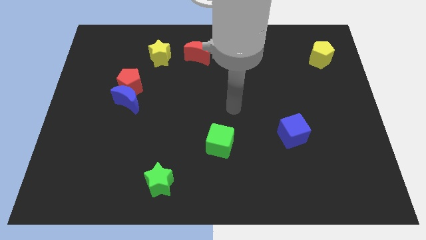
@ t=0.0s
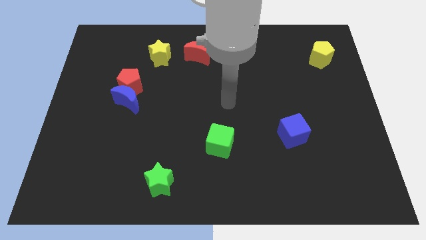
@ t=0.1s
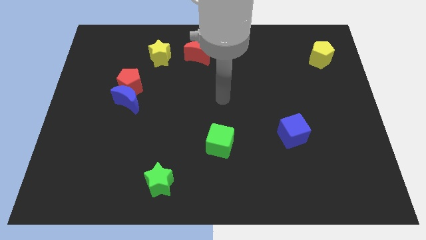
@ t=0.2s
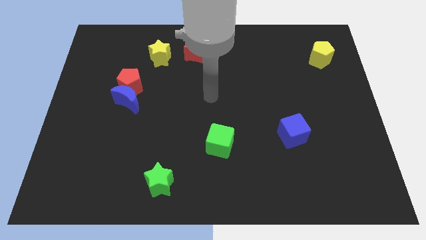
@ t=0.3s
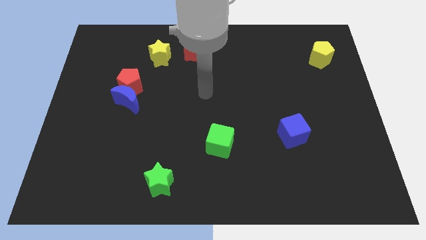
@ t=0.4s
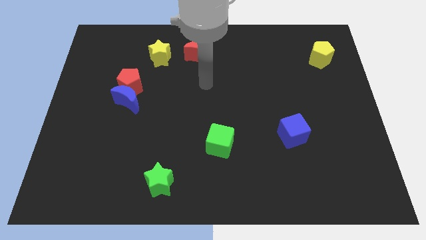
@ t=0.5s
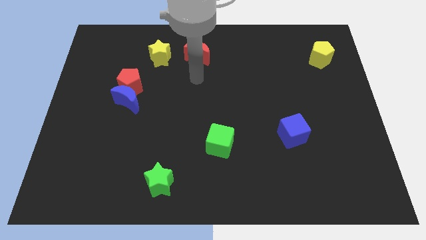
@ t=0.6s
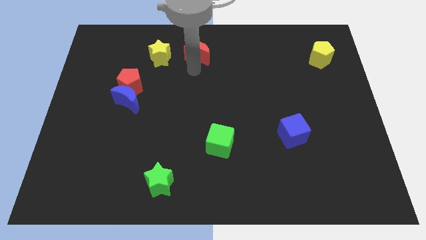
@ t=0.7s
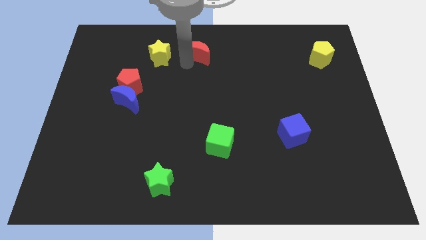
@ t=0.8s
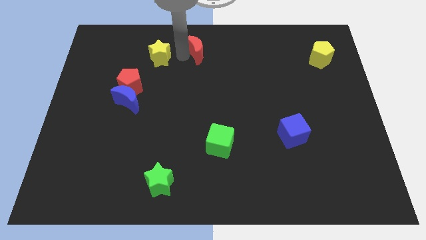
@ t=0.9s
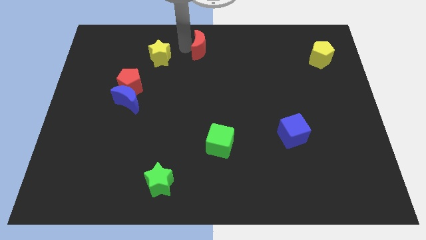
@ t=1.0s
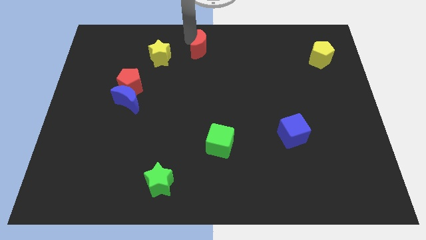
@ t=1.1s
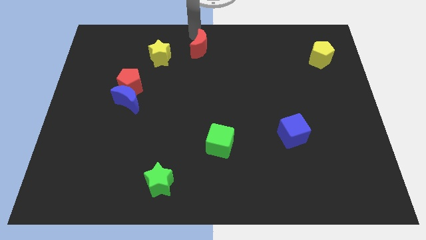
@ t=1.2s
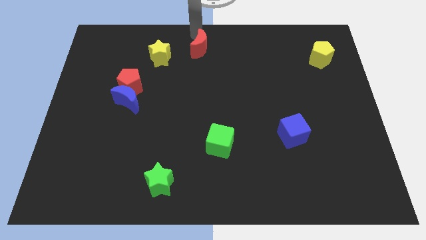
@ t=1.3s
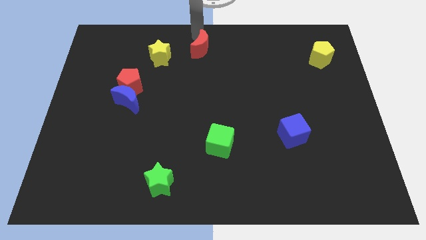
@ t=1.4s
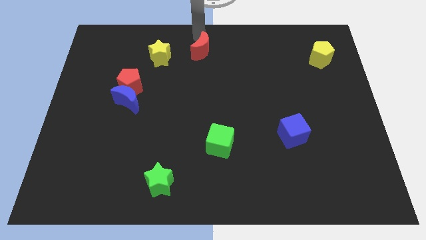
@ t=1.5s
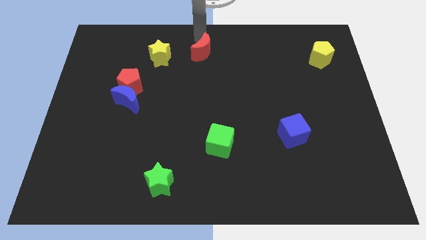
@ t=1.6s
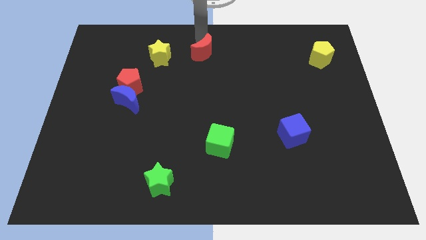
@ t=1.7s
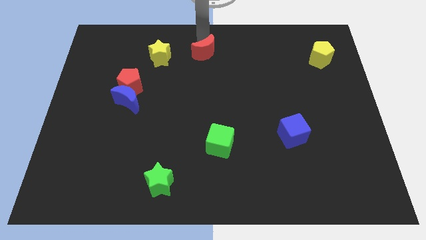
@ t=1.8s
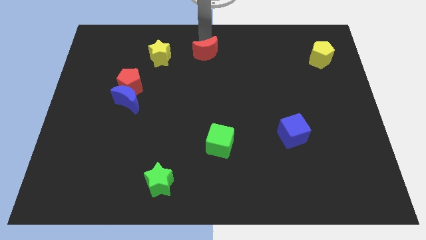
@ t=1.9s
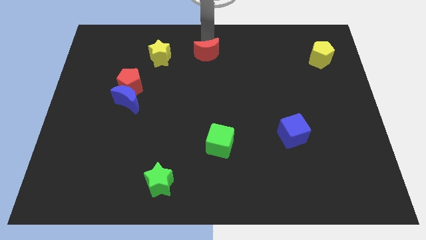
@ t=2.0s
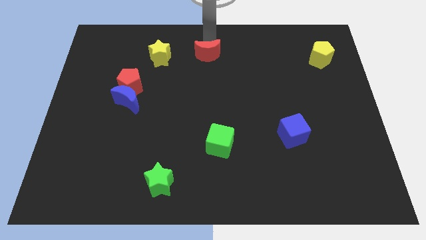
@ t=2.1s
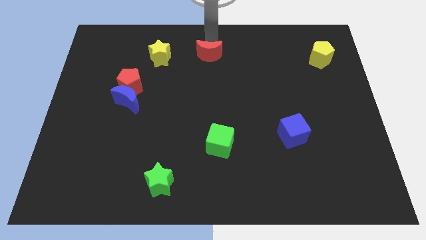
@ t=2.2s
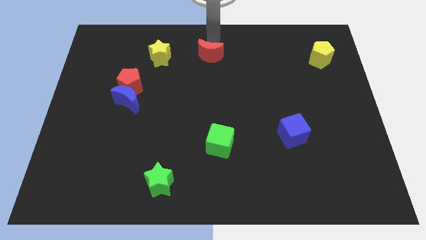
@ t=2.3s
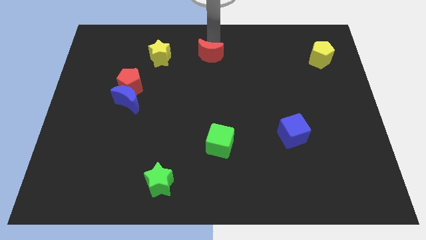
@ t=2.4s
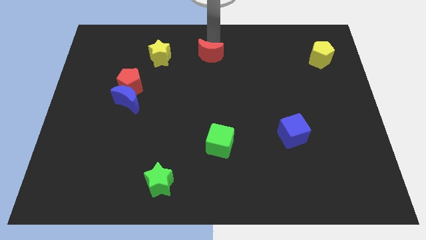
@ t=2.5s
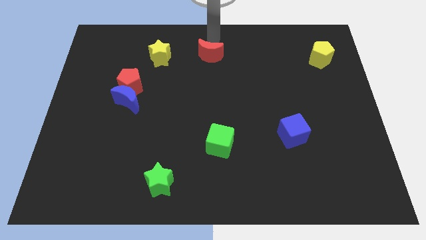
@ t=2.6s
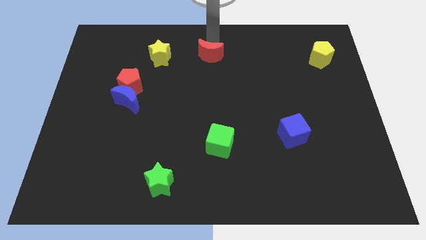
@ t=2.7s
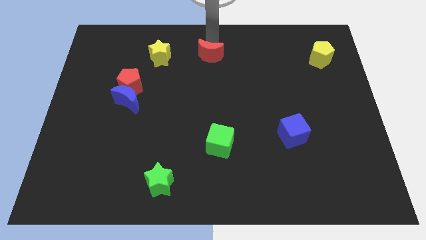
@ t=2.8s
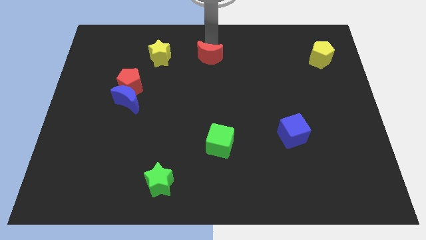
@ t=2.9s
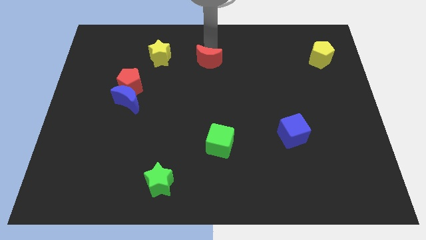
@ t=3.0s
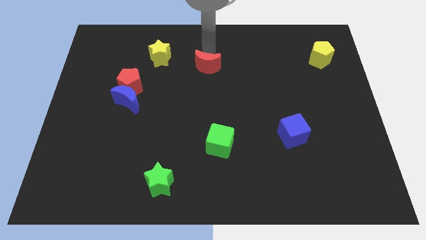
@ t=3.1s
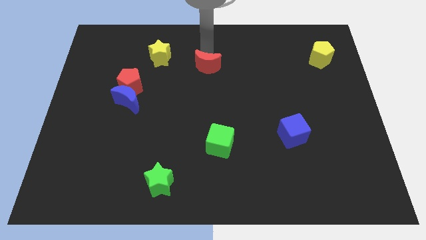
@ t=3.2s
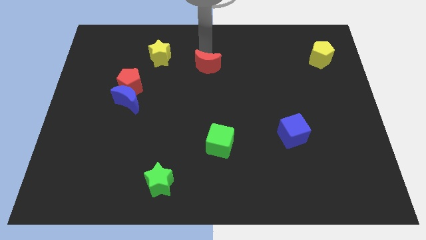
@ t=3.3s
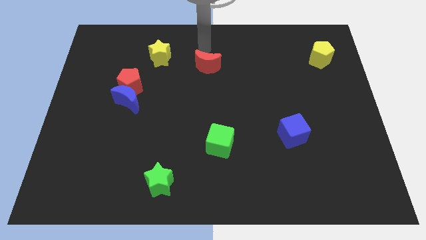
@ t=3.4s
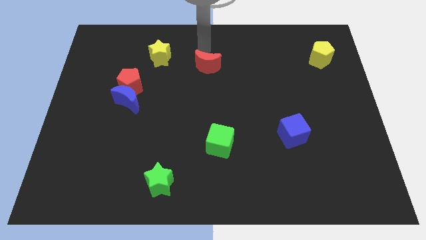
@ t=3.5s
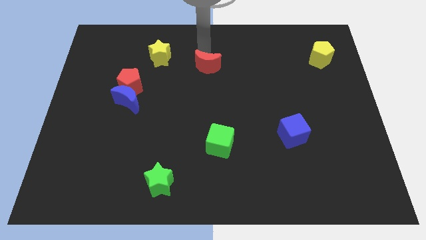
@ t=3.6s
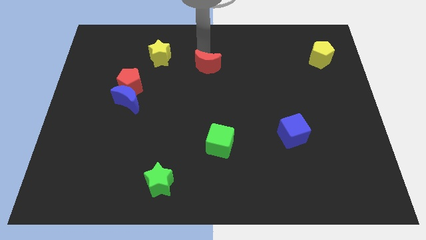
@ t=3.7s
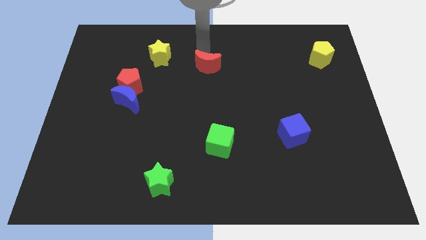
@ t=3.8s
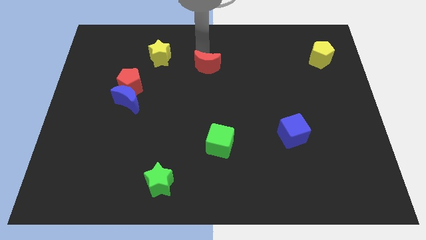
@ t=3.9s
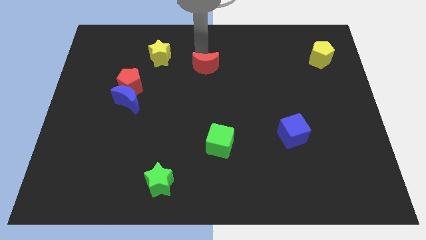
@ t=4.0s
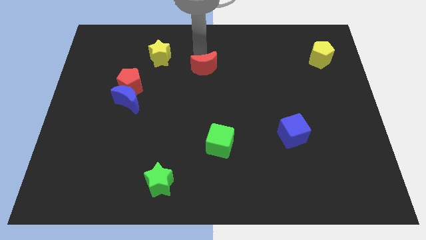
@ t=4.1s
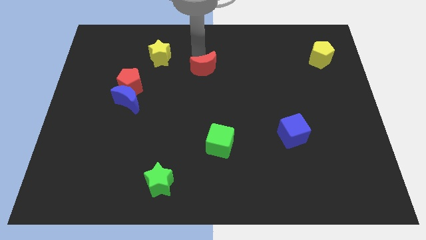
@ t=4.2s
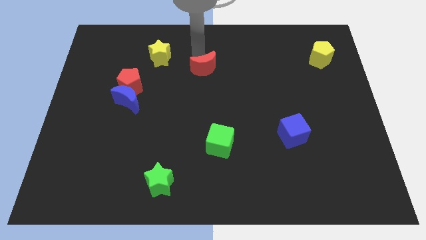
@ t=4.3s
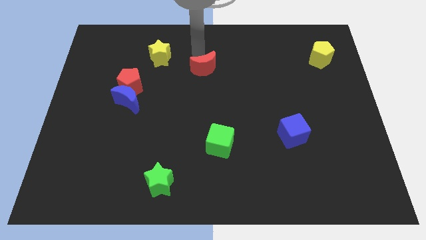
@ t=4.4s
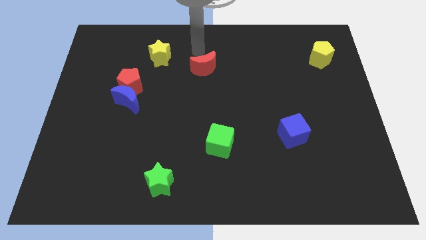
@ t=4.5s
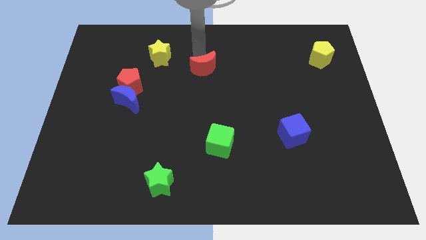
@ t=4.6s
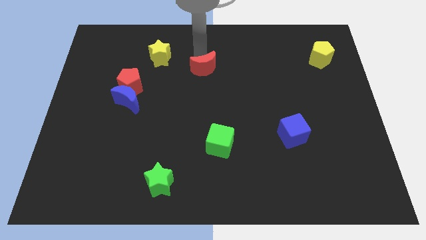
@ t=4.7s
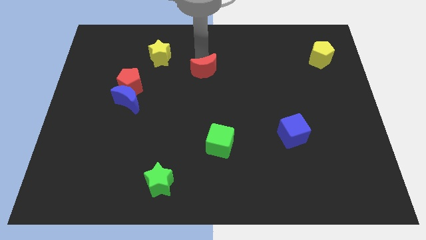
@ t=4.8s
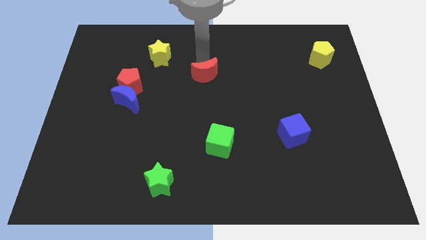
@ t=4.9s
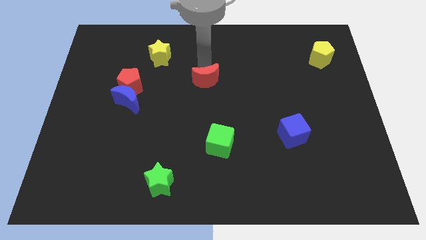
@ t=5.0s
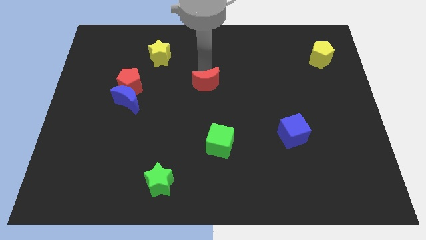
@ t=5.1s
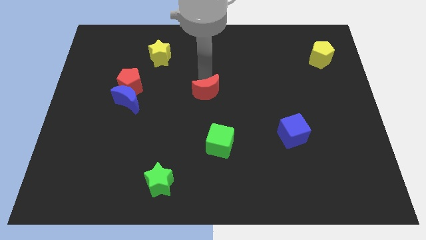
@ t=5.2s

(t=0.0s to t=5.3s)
put the red moon to the top side of the green cube

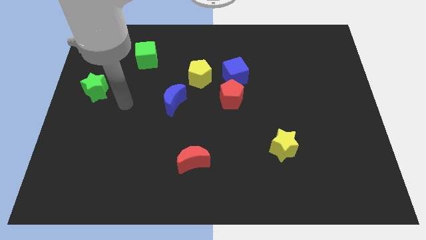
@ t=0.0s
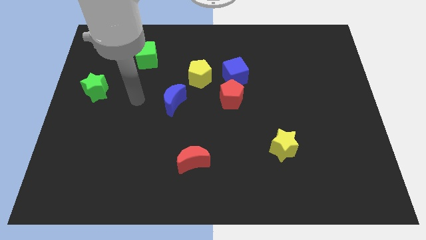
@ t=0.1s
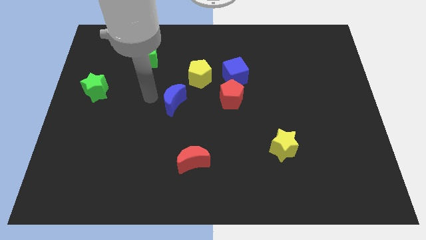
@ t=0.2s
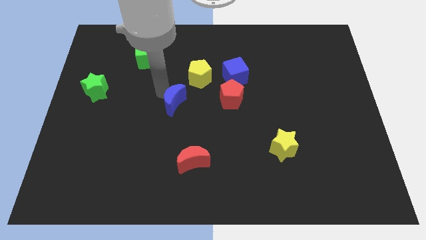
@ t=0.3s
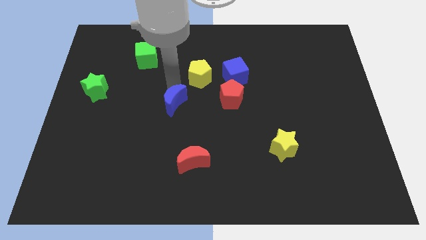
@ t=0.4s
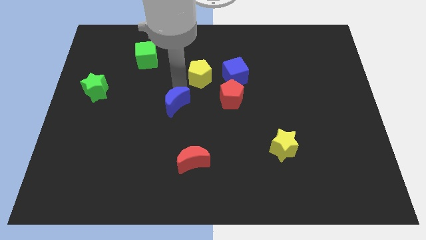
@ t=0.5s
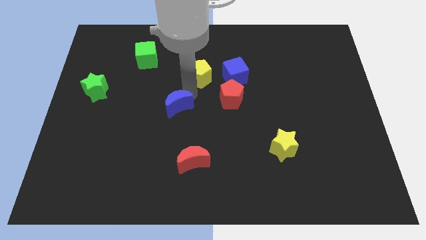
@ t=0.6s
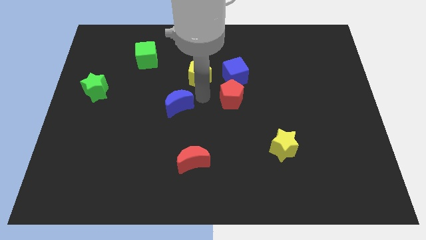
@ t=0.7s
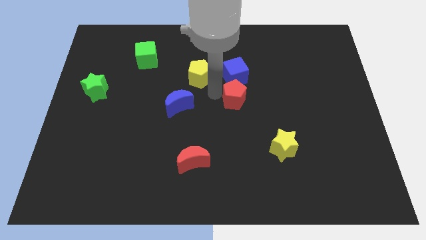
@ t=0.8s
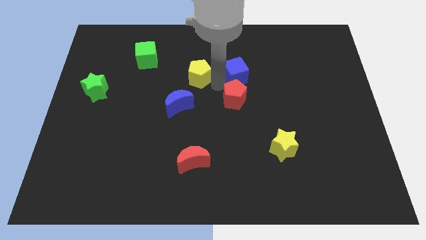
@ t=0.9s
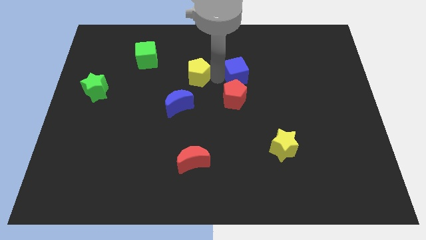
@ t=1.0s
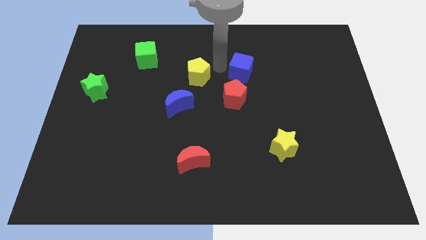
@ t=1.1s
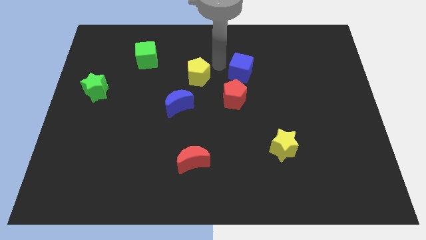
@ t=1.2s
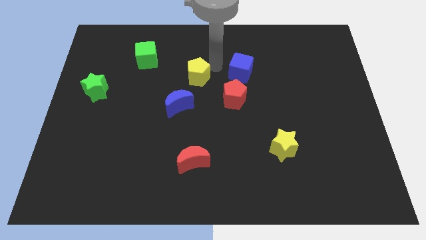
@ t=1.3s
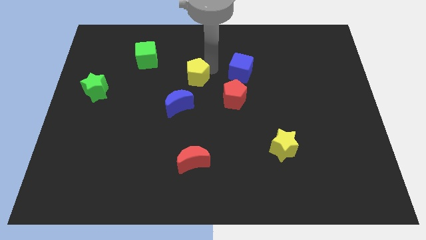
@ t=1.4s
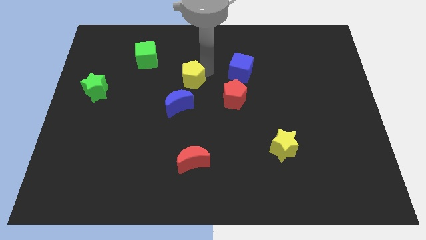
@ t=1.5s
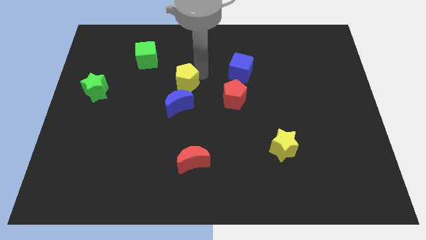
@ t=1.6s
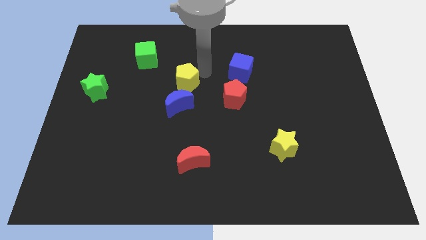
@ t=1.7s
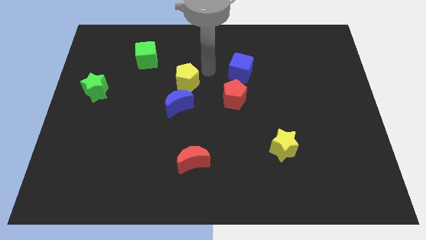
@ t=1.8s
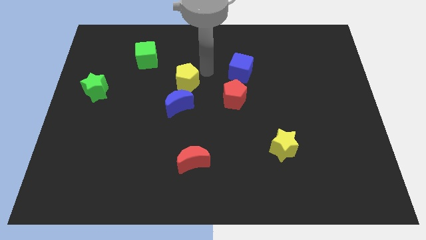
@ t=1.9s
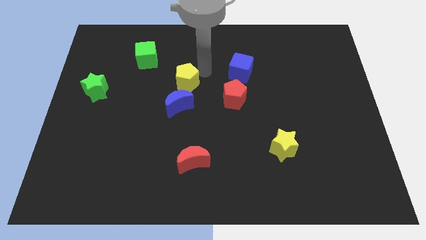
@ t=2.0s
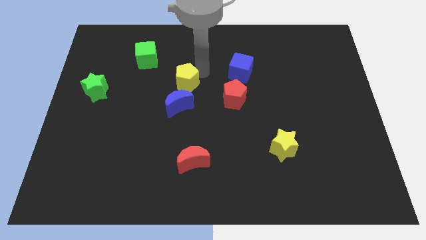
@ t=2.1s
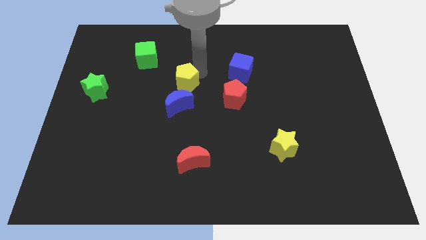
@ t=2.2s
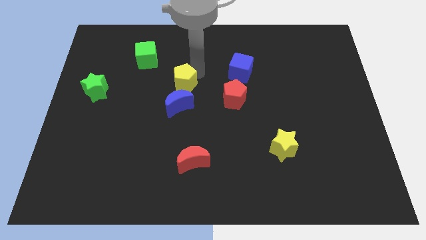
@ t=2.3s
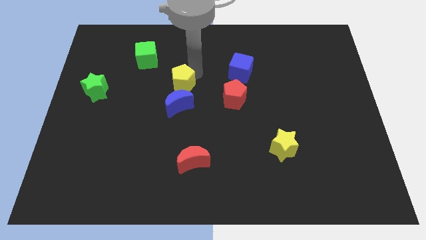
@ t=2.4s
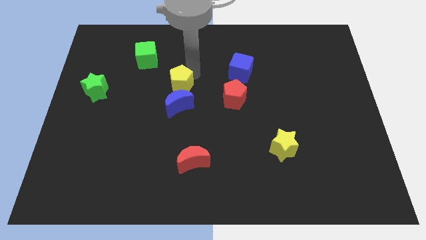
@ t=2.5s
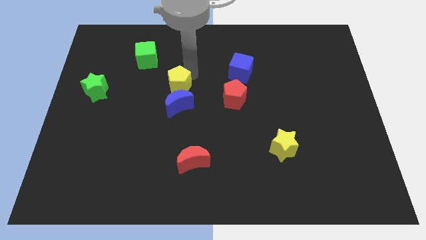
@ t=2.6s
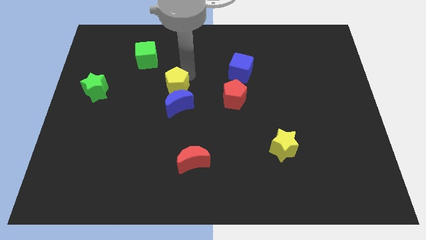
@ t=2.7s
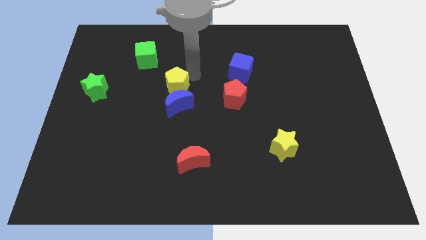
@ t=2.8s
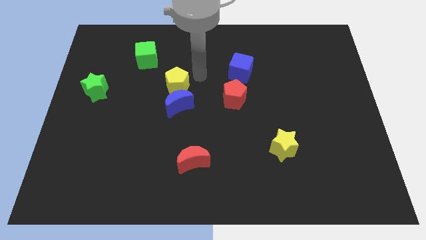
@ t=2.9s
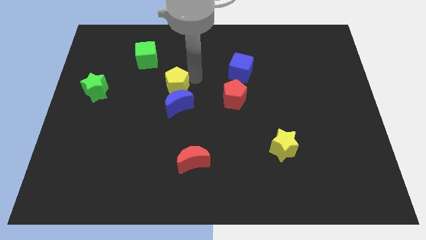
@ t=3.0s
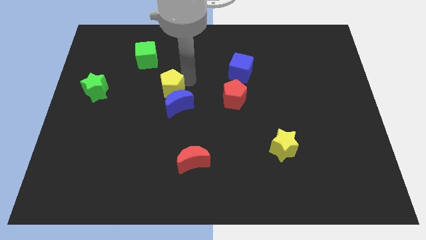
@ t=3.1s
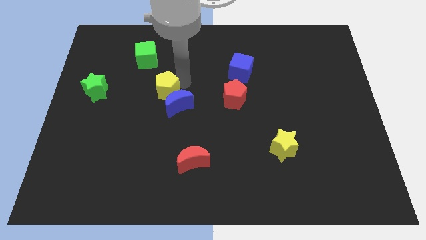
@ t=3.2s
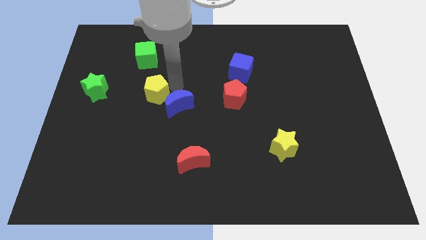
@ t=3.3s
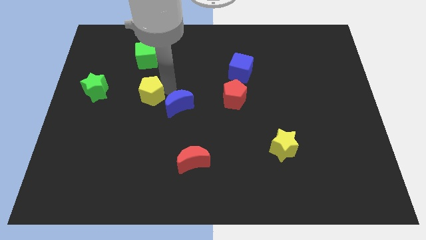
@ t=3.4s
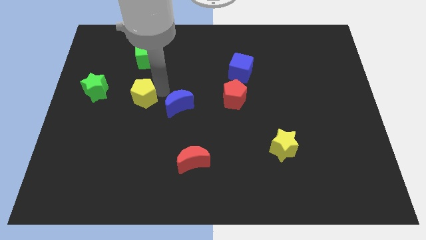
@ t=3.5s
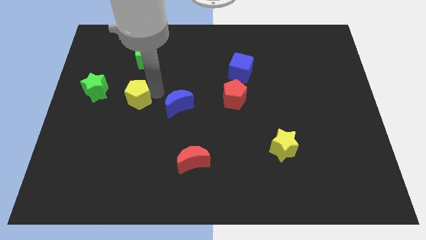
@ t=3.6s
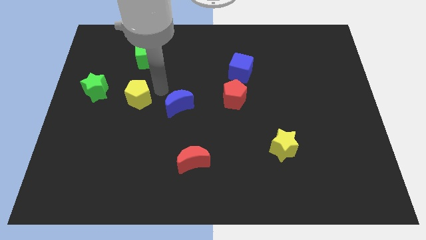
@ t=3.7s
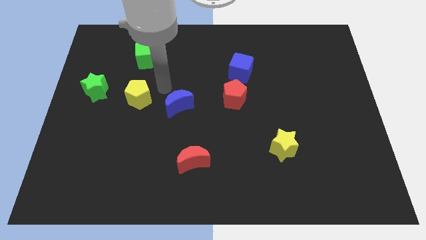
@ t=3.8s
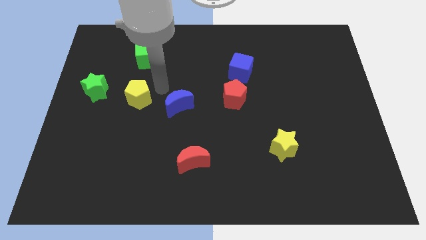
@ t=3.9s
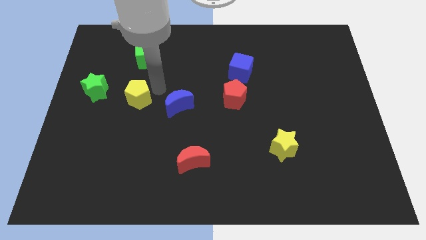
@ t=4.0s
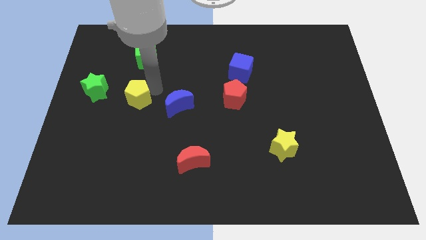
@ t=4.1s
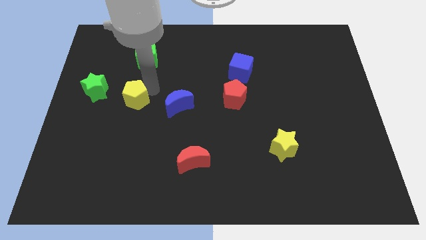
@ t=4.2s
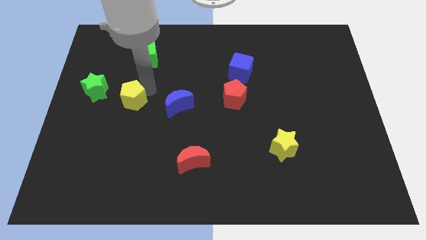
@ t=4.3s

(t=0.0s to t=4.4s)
push the yellow pentagon to the bottom right of the green star
